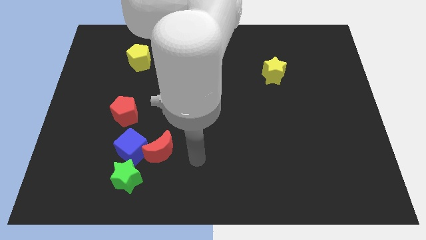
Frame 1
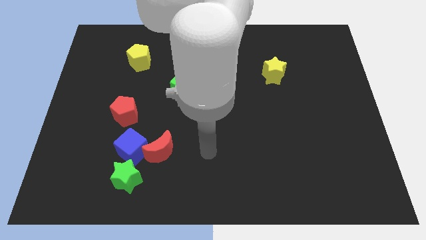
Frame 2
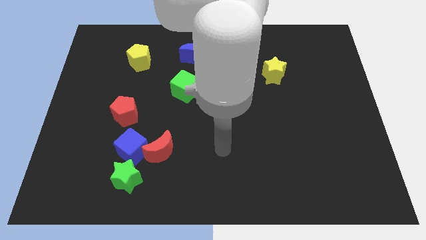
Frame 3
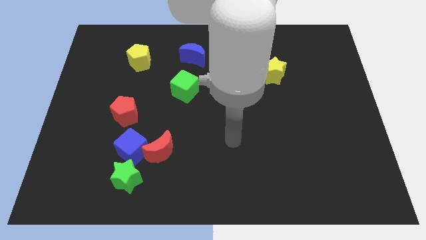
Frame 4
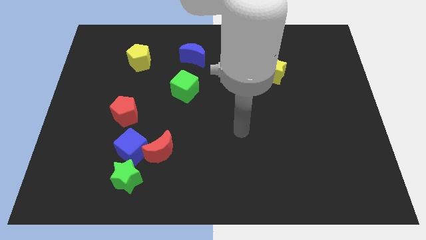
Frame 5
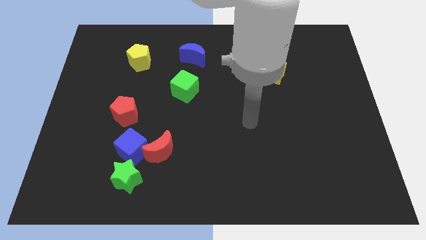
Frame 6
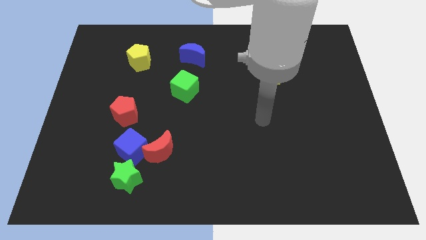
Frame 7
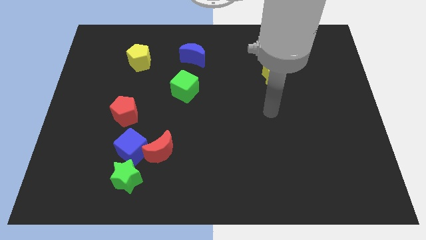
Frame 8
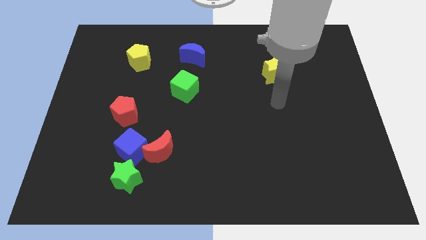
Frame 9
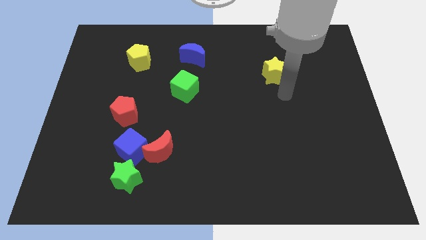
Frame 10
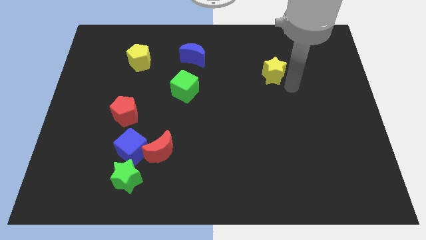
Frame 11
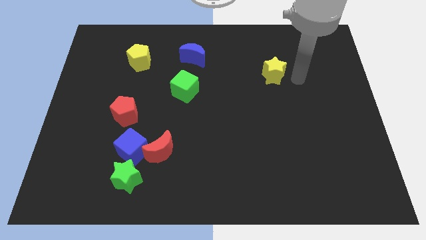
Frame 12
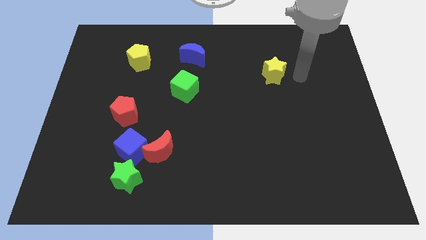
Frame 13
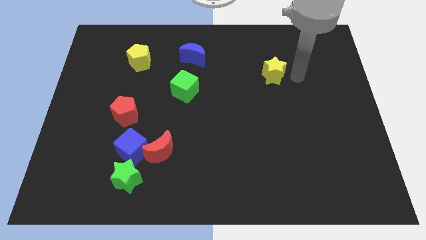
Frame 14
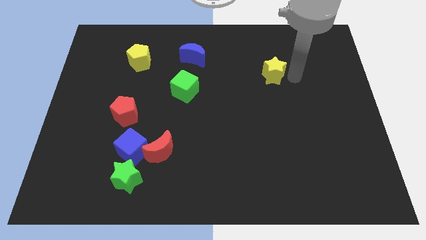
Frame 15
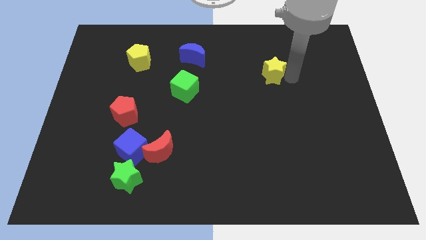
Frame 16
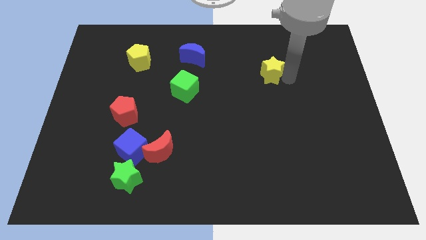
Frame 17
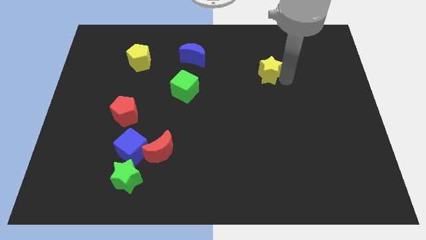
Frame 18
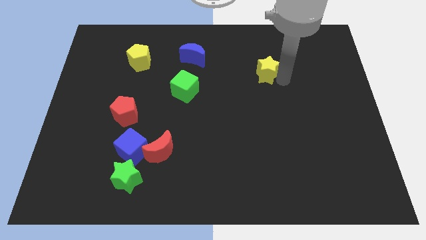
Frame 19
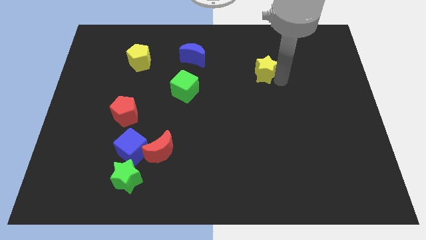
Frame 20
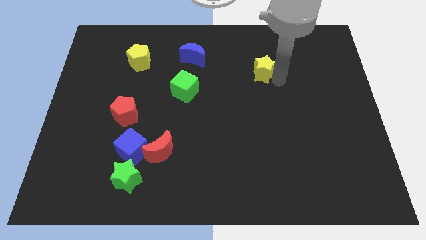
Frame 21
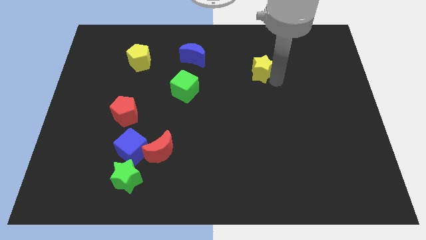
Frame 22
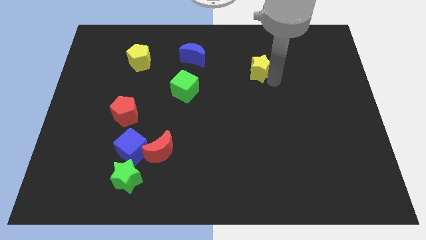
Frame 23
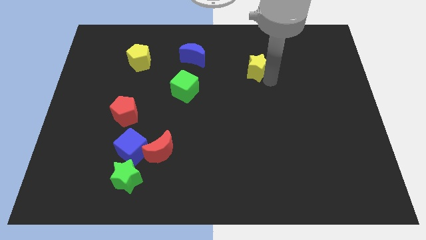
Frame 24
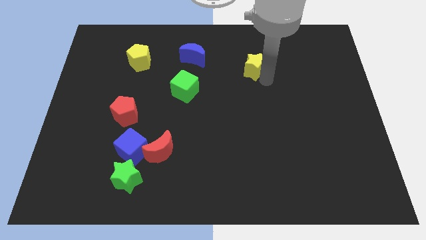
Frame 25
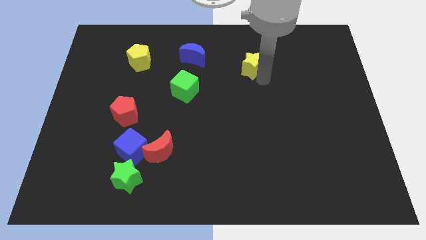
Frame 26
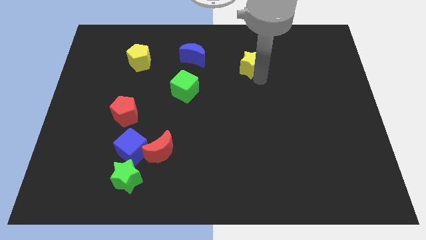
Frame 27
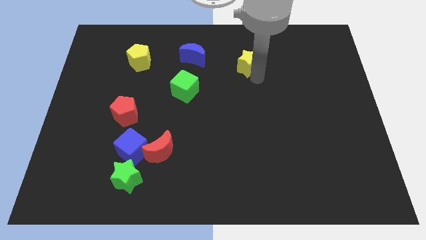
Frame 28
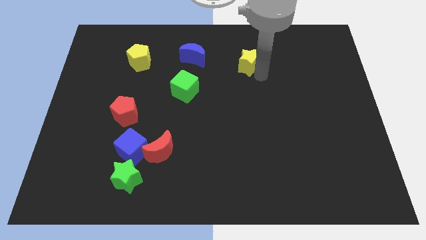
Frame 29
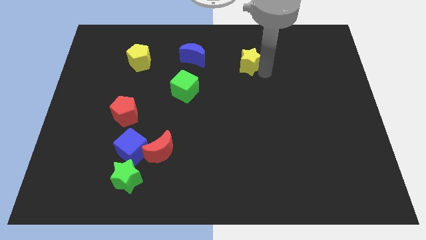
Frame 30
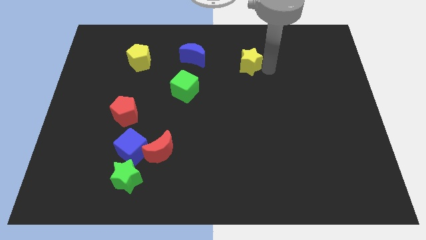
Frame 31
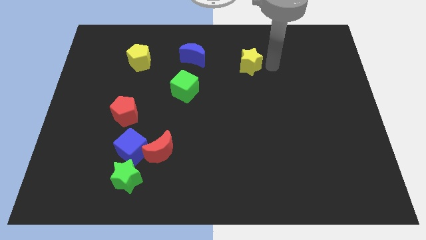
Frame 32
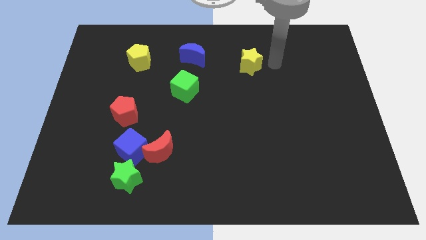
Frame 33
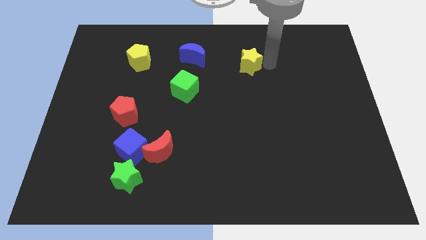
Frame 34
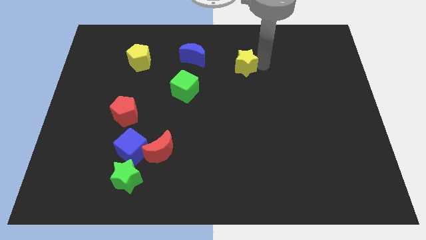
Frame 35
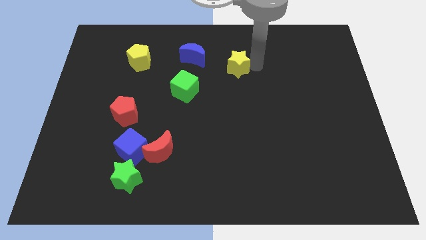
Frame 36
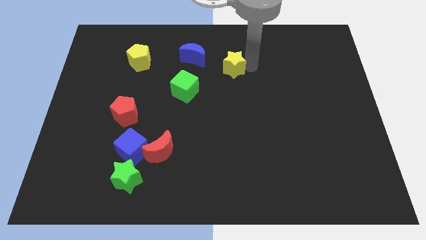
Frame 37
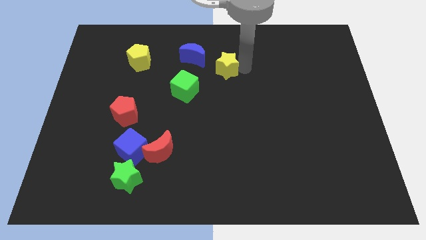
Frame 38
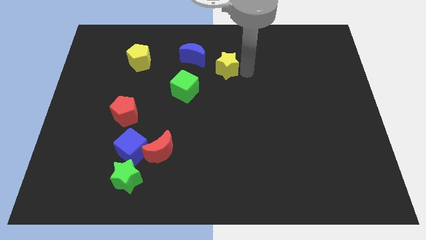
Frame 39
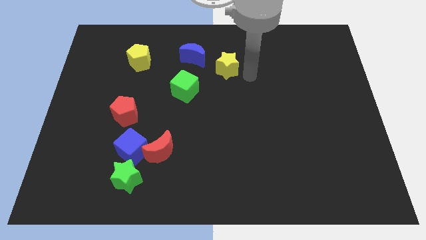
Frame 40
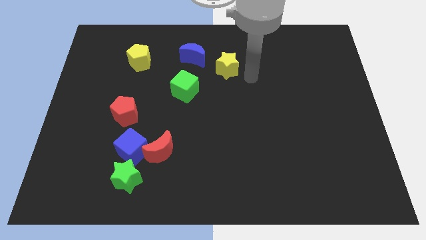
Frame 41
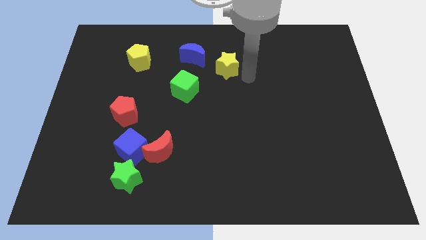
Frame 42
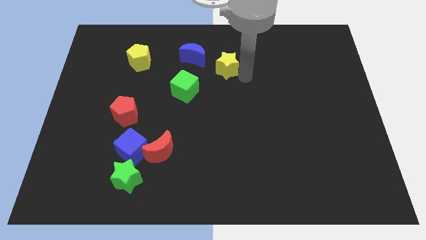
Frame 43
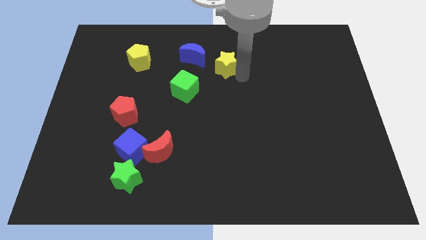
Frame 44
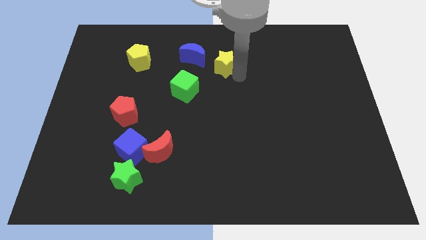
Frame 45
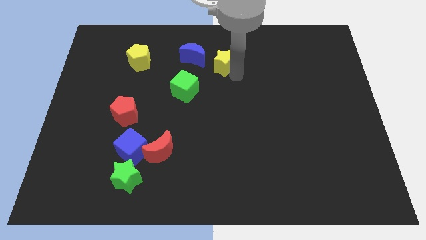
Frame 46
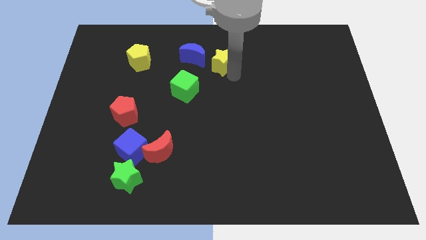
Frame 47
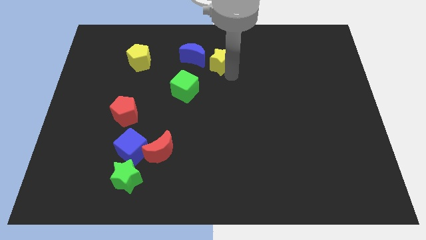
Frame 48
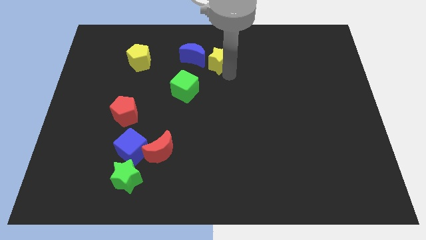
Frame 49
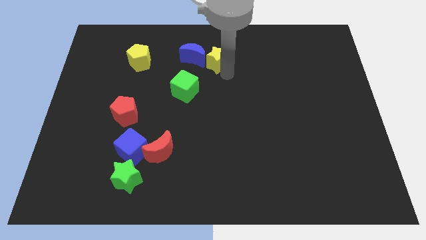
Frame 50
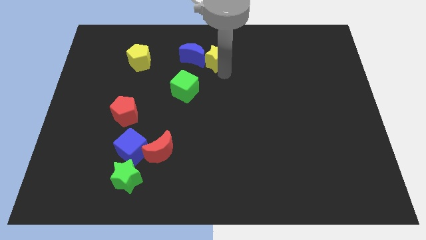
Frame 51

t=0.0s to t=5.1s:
slide the yellow star to the blue moon

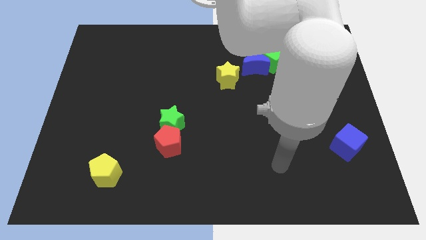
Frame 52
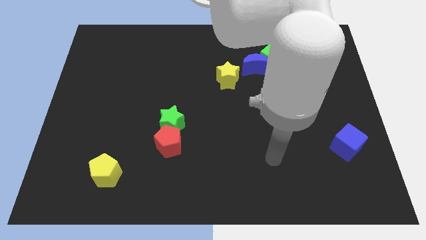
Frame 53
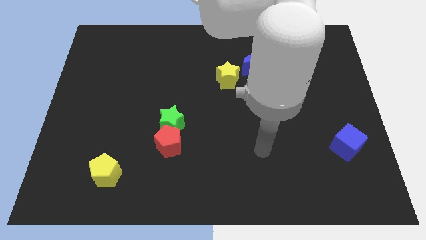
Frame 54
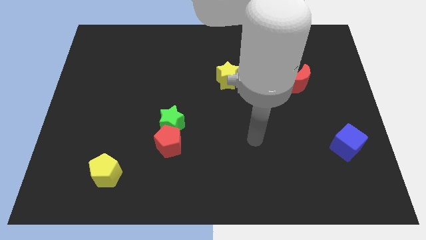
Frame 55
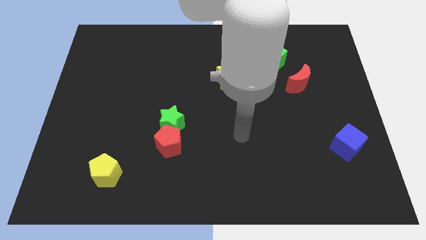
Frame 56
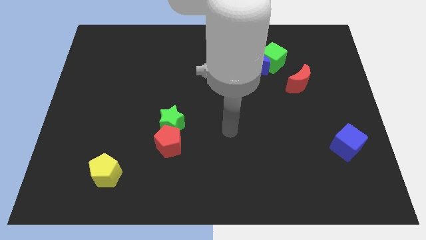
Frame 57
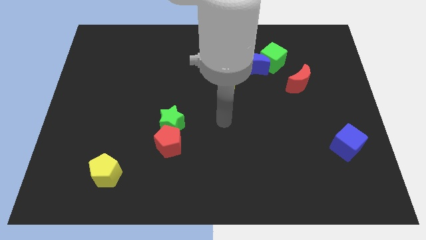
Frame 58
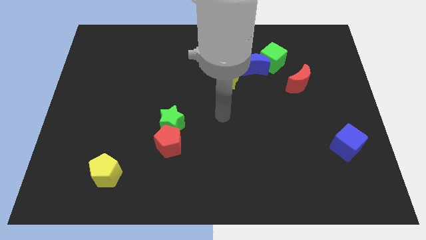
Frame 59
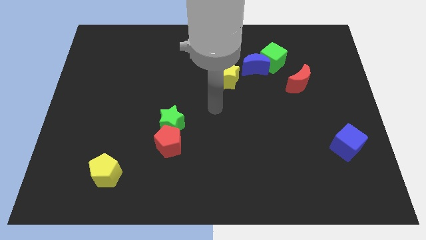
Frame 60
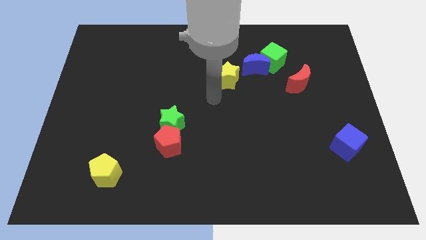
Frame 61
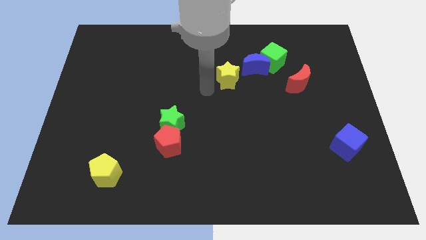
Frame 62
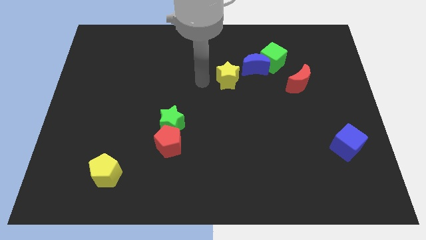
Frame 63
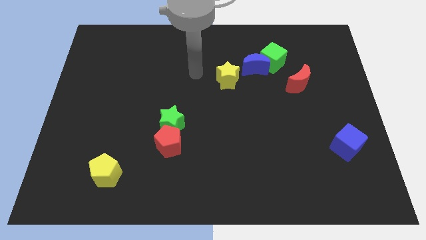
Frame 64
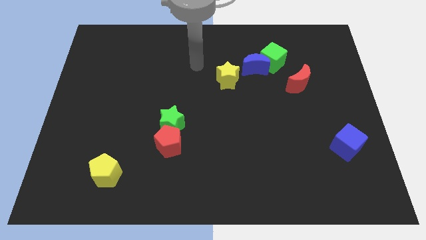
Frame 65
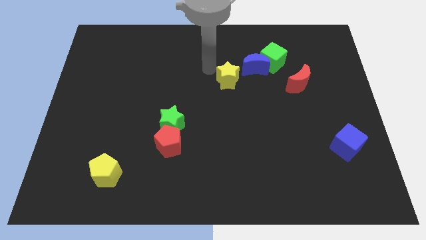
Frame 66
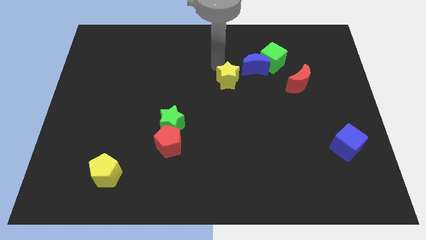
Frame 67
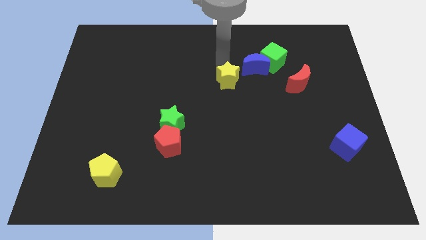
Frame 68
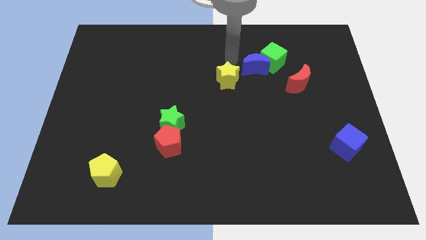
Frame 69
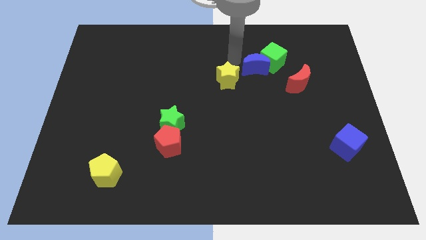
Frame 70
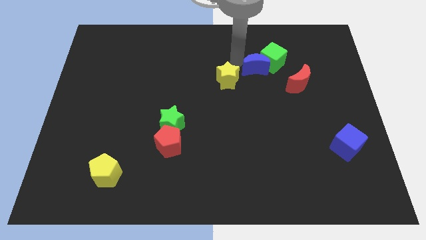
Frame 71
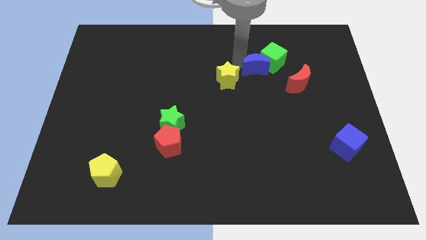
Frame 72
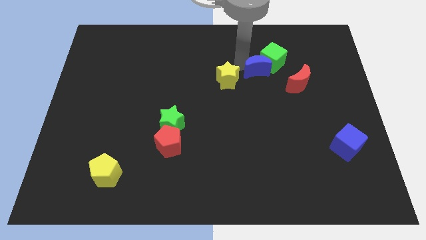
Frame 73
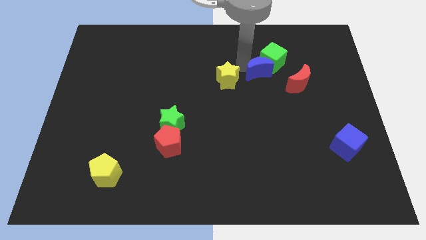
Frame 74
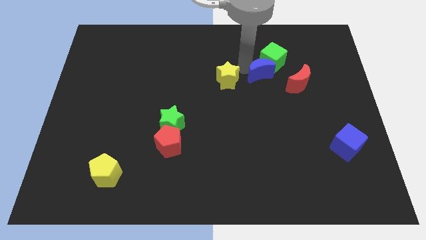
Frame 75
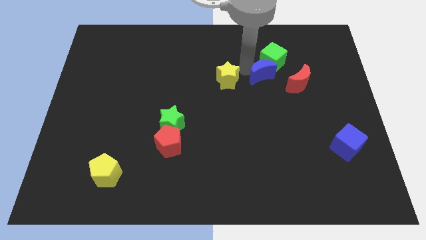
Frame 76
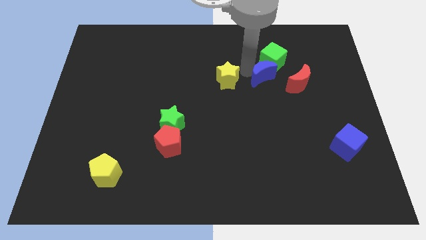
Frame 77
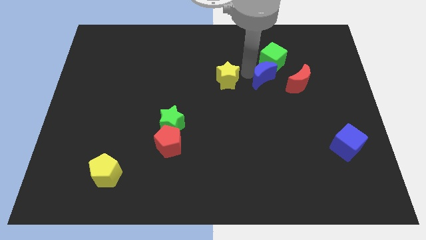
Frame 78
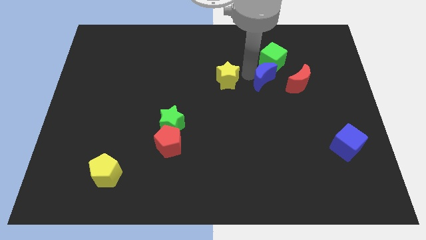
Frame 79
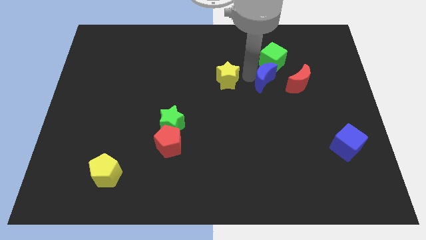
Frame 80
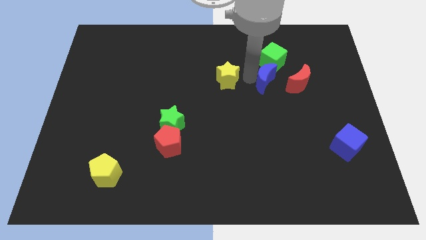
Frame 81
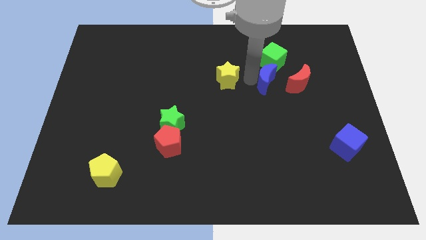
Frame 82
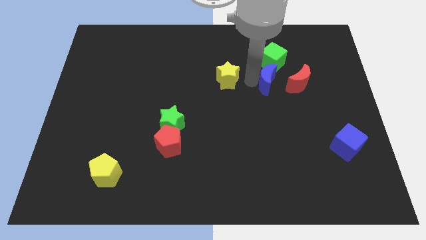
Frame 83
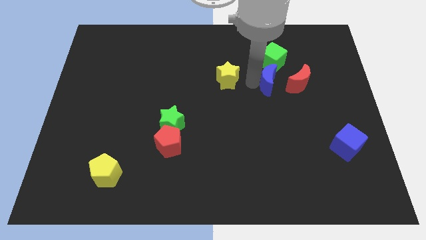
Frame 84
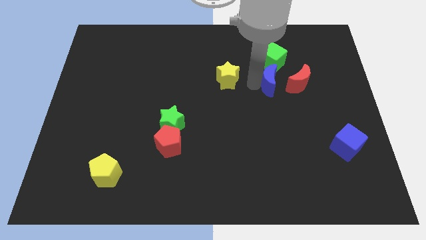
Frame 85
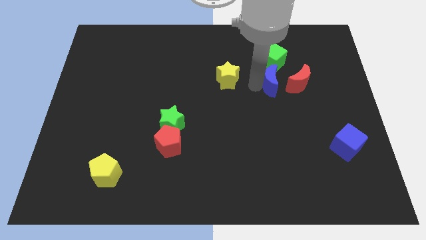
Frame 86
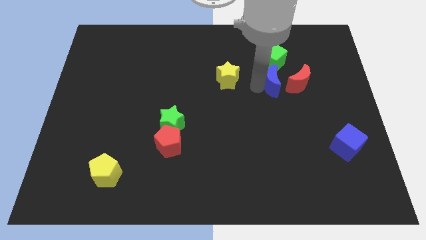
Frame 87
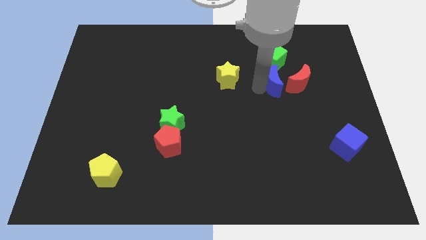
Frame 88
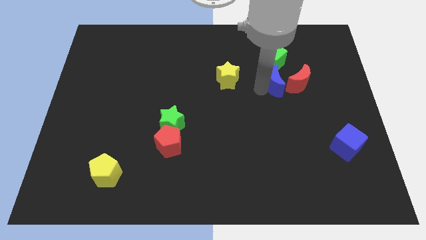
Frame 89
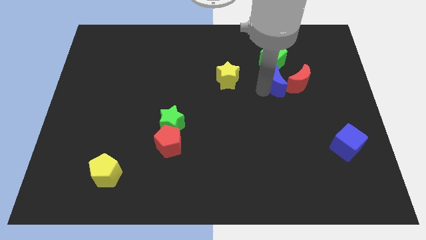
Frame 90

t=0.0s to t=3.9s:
push the blue moon next to the red moon
